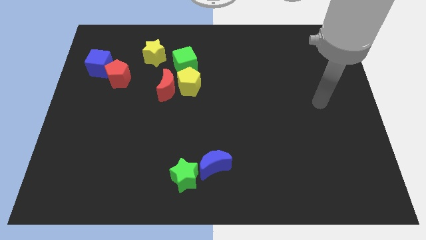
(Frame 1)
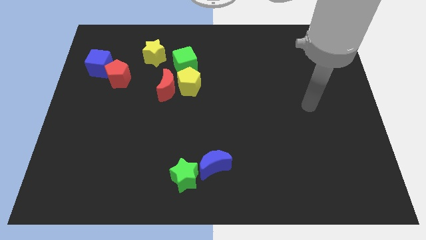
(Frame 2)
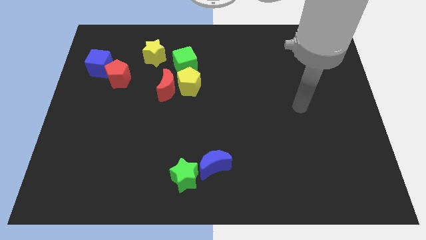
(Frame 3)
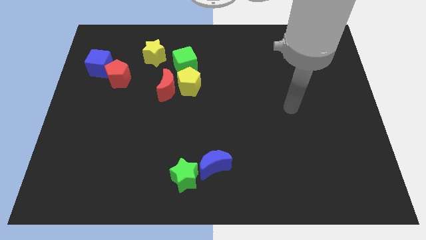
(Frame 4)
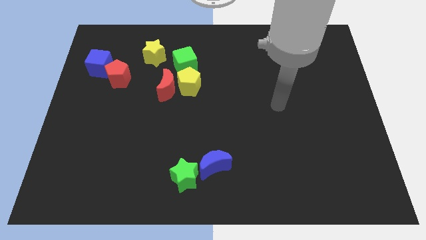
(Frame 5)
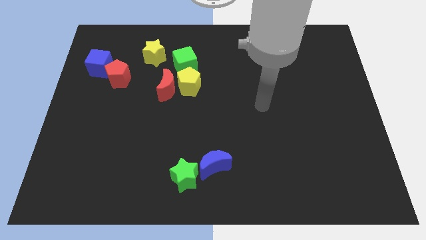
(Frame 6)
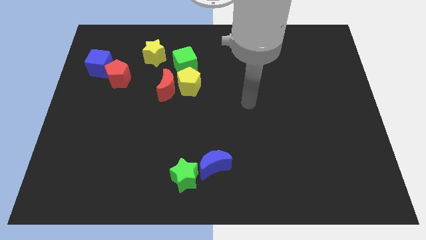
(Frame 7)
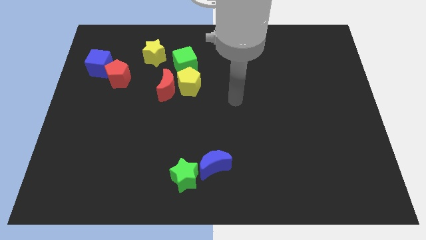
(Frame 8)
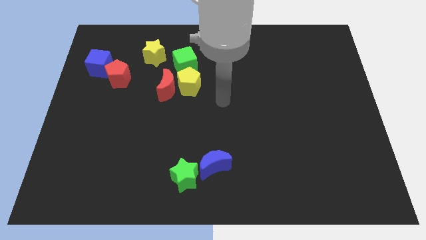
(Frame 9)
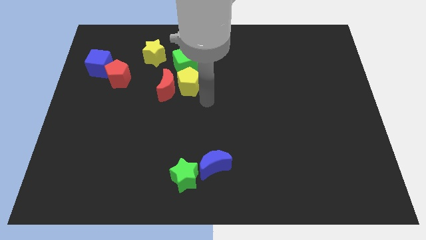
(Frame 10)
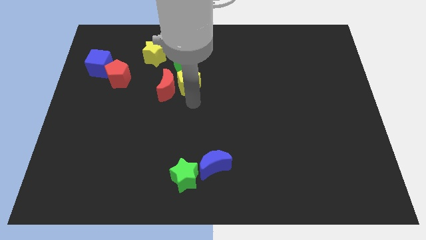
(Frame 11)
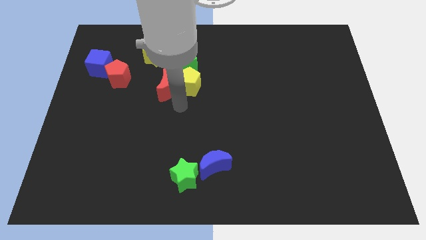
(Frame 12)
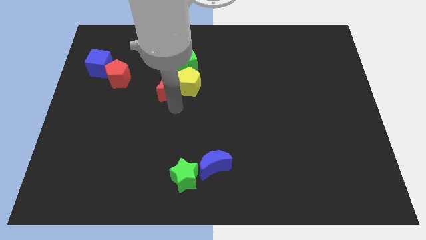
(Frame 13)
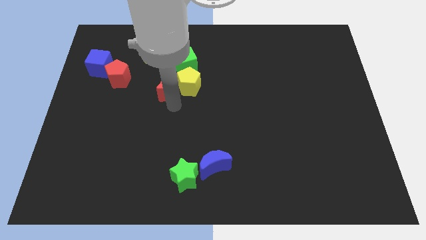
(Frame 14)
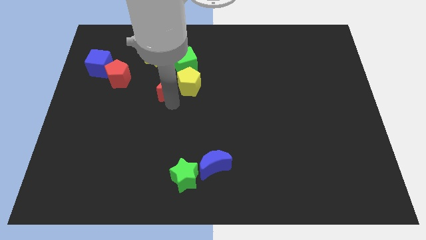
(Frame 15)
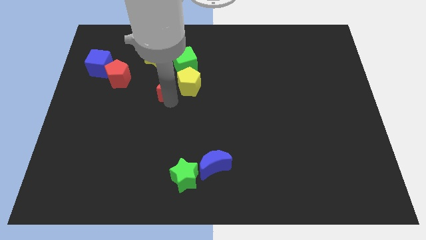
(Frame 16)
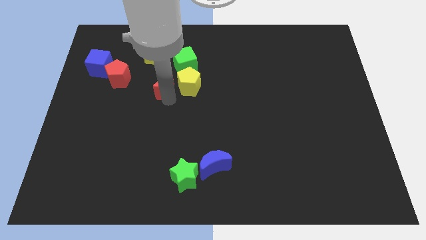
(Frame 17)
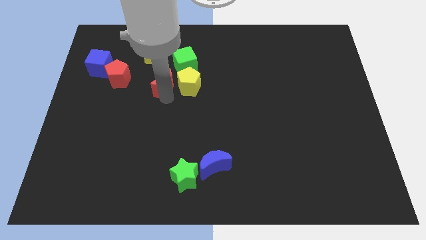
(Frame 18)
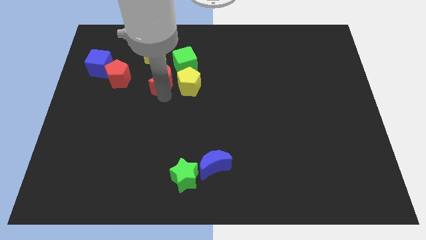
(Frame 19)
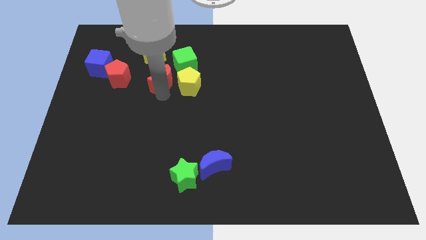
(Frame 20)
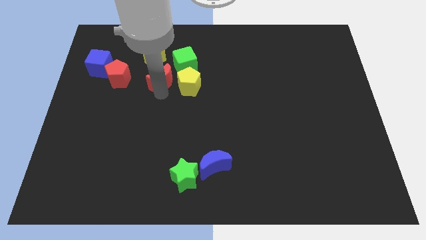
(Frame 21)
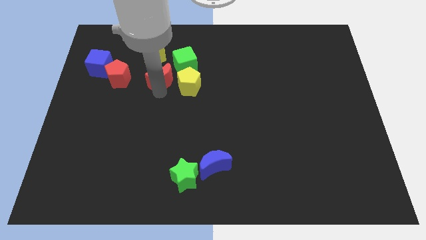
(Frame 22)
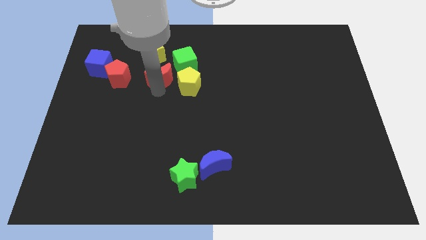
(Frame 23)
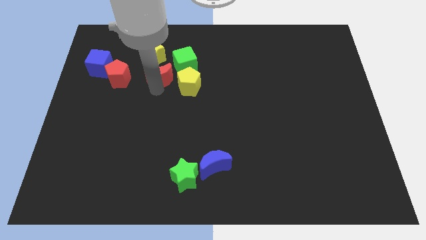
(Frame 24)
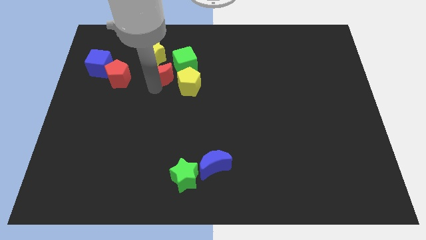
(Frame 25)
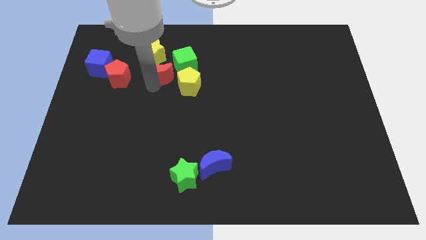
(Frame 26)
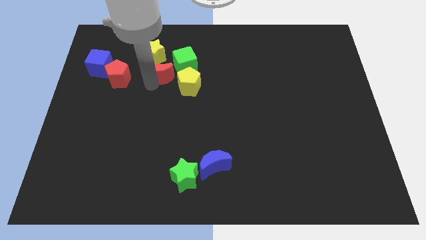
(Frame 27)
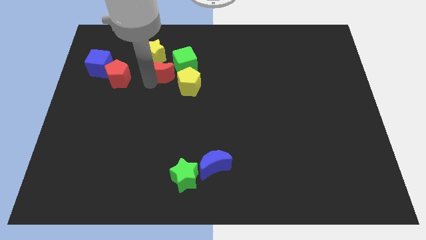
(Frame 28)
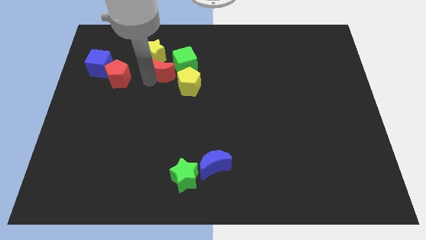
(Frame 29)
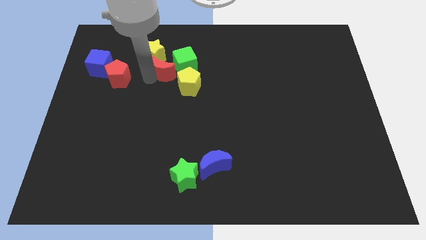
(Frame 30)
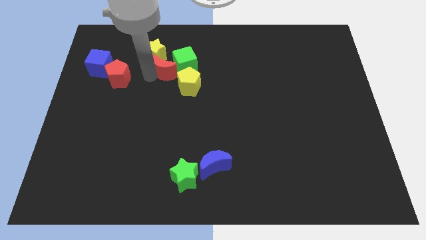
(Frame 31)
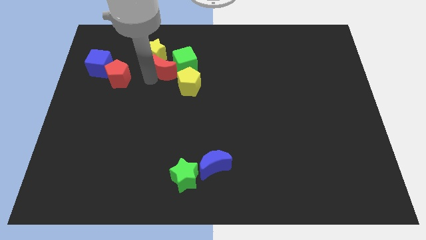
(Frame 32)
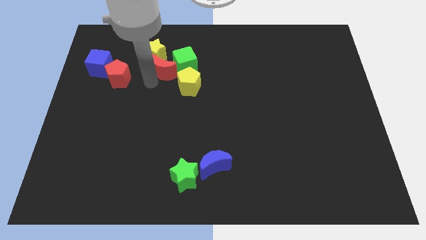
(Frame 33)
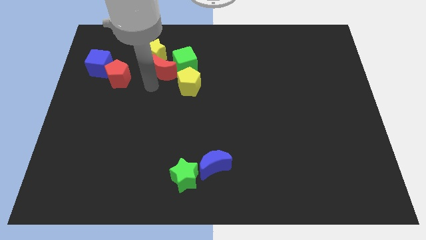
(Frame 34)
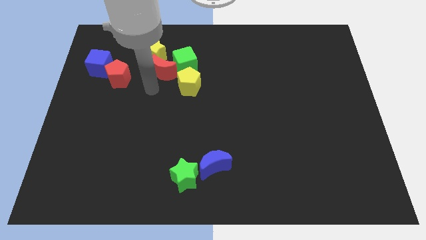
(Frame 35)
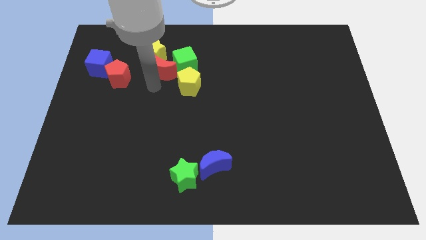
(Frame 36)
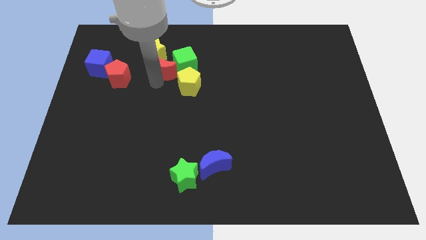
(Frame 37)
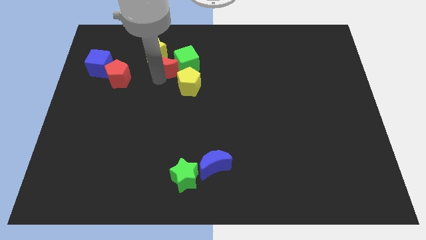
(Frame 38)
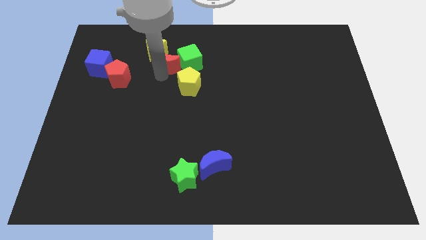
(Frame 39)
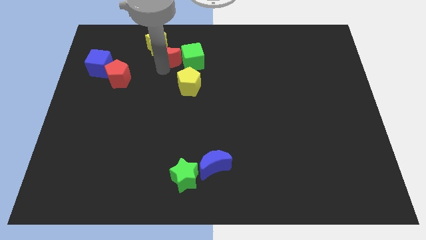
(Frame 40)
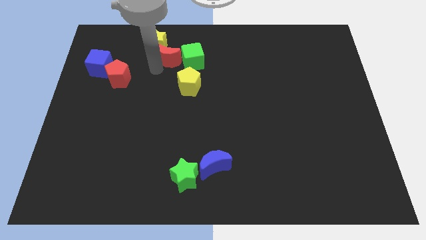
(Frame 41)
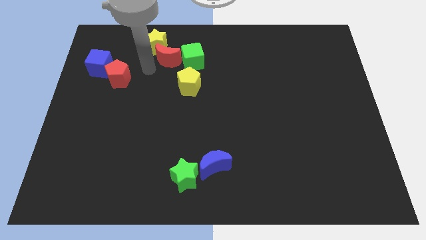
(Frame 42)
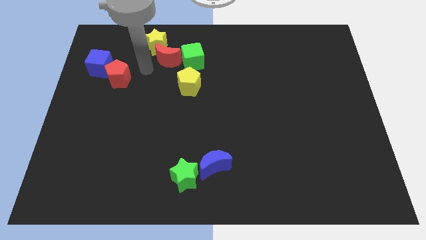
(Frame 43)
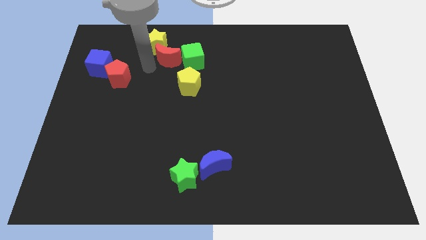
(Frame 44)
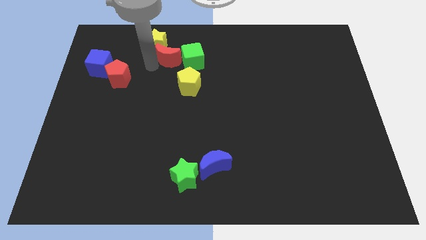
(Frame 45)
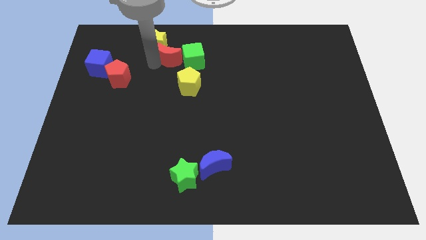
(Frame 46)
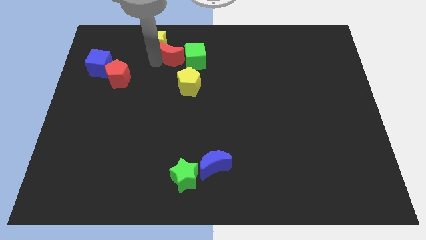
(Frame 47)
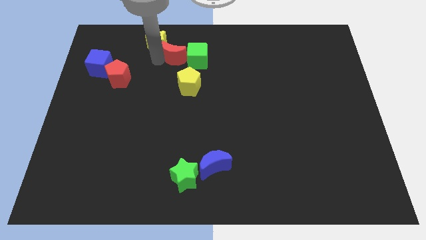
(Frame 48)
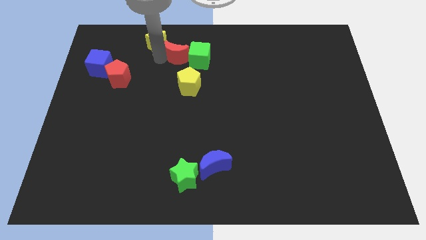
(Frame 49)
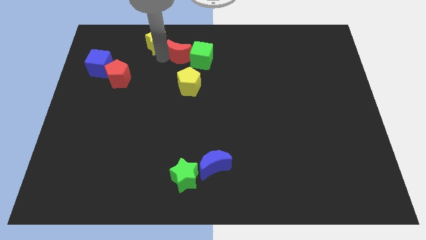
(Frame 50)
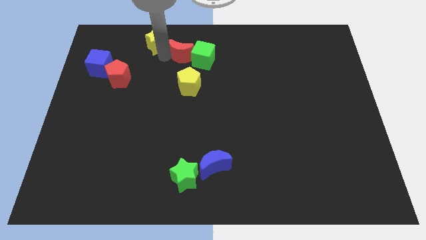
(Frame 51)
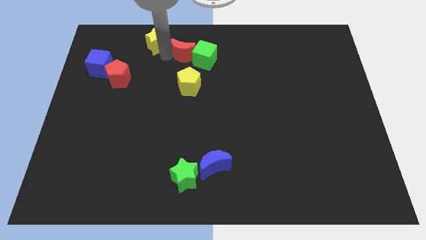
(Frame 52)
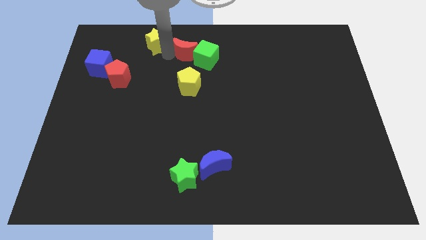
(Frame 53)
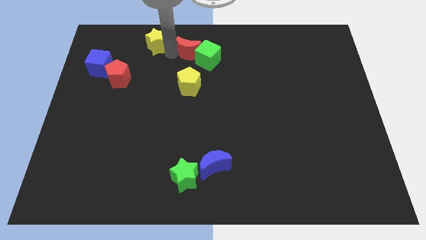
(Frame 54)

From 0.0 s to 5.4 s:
push the red moon to the top

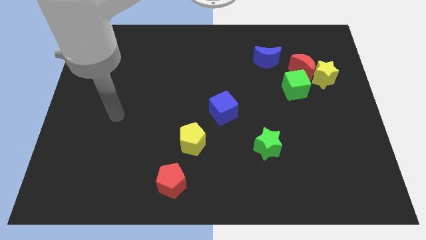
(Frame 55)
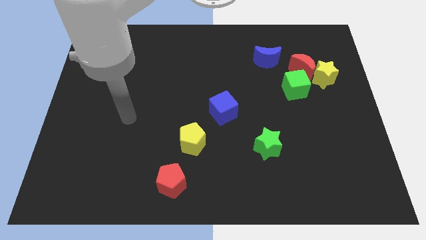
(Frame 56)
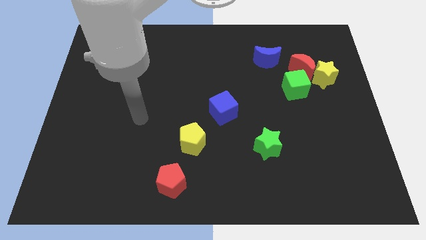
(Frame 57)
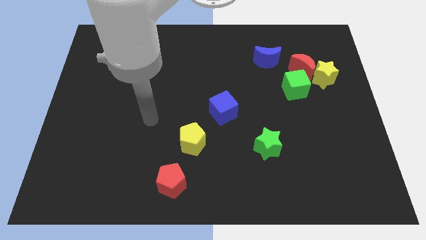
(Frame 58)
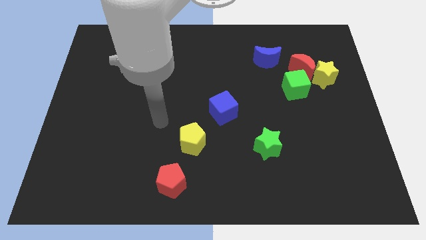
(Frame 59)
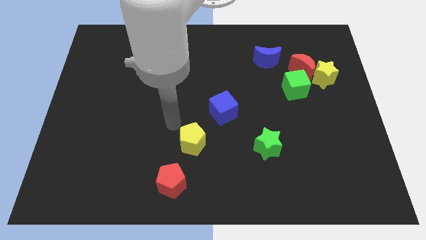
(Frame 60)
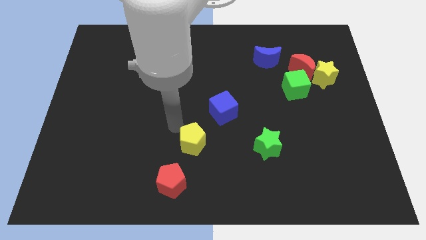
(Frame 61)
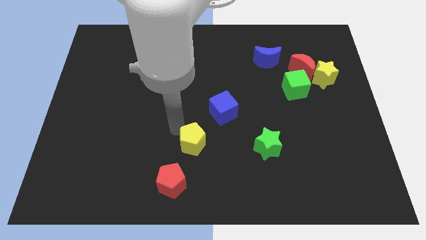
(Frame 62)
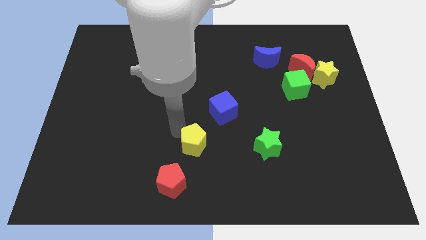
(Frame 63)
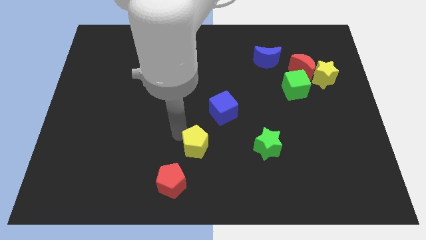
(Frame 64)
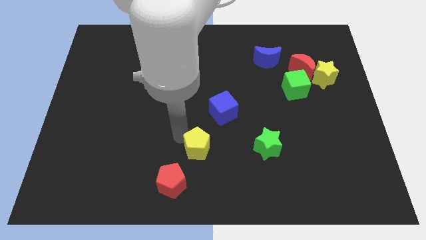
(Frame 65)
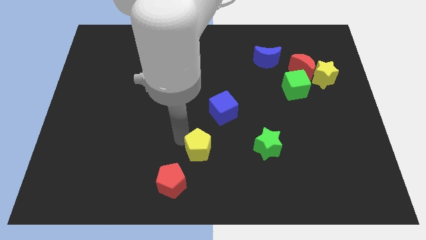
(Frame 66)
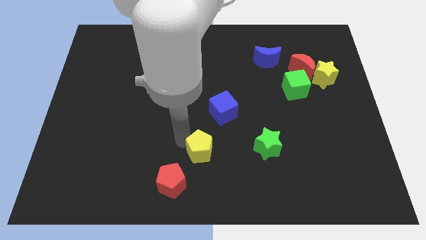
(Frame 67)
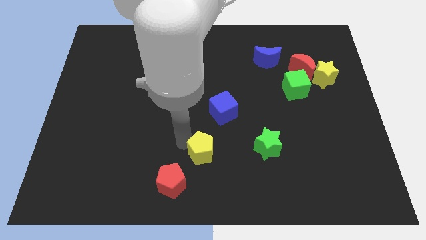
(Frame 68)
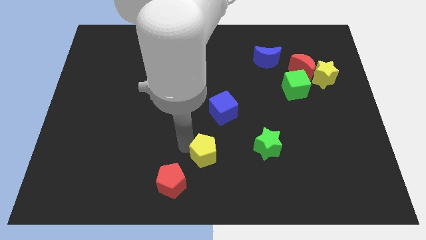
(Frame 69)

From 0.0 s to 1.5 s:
push the yellow pentagon to the bottom side
